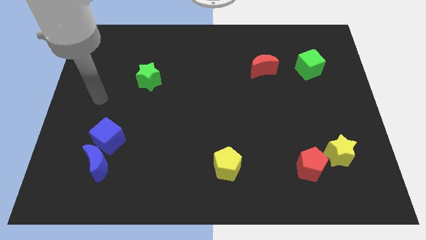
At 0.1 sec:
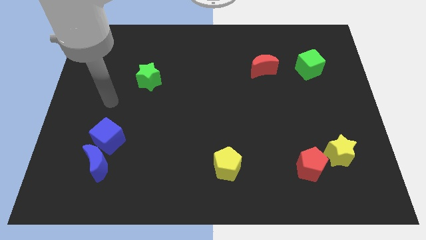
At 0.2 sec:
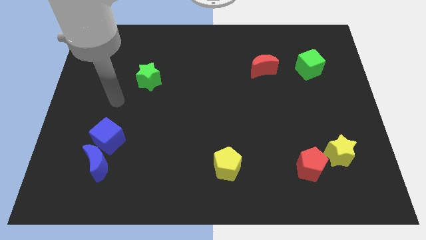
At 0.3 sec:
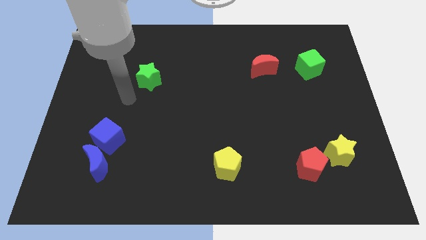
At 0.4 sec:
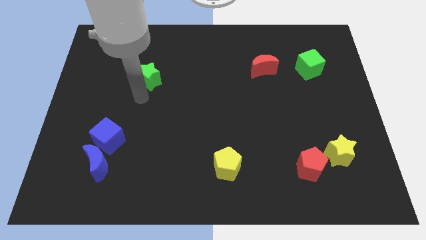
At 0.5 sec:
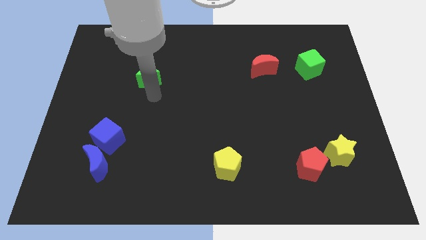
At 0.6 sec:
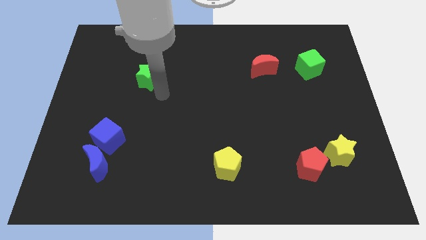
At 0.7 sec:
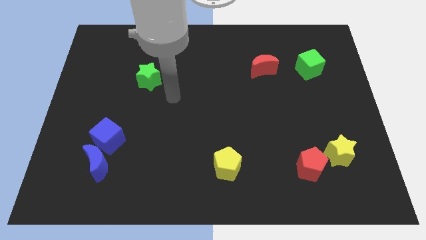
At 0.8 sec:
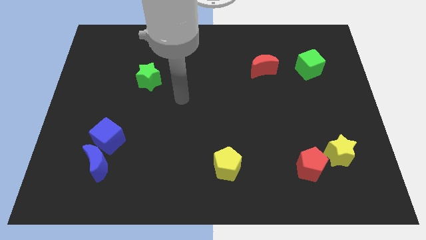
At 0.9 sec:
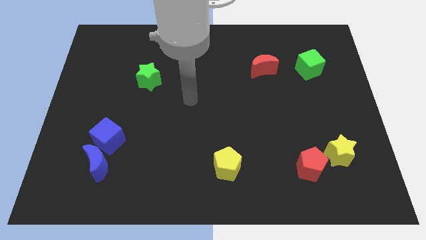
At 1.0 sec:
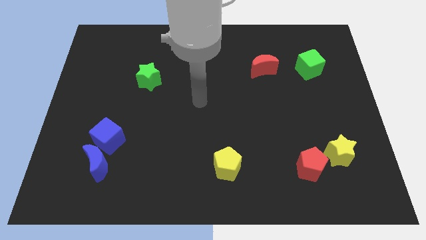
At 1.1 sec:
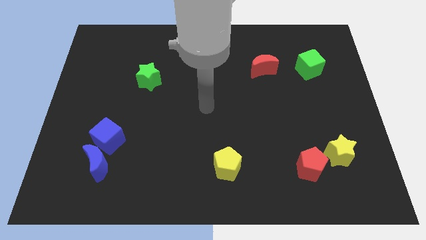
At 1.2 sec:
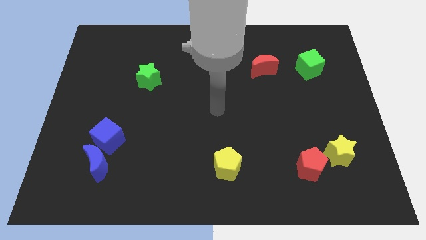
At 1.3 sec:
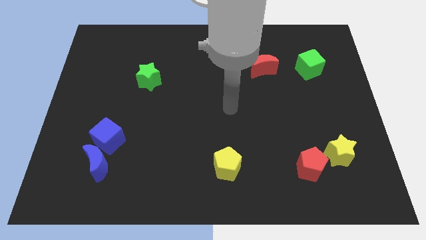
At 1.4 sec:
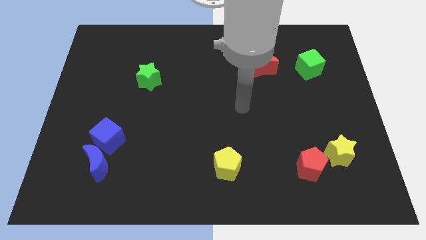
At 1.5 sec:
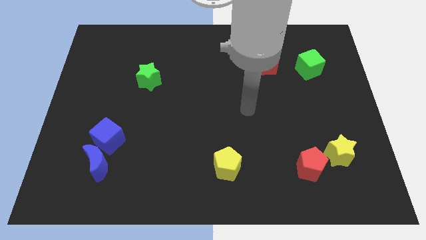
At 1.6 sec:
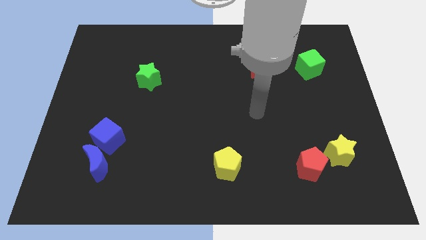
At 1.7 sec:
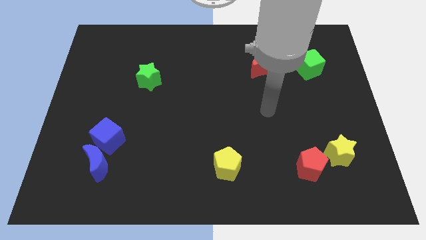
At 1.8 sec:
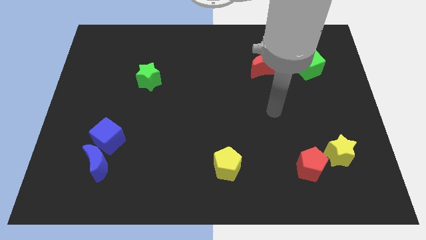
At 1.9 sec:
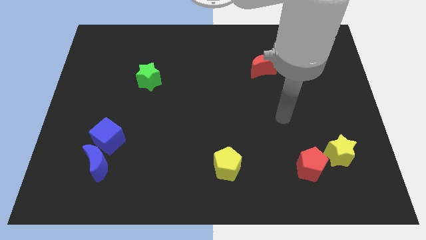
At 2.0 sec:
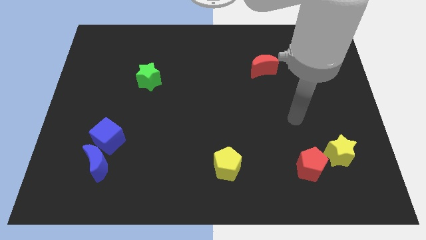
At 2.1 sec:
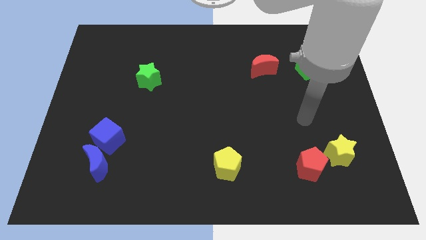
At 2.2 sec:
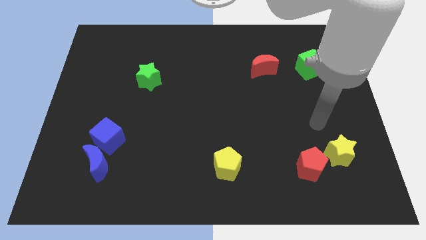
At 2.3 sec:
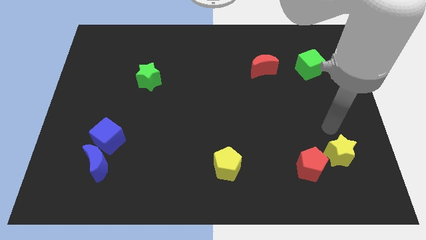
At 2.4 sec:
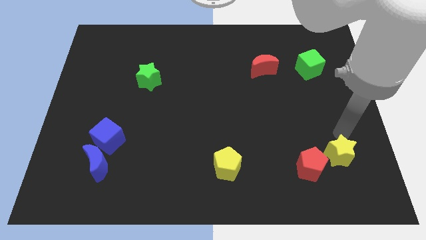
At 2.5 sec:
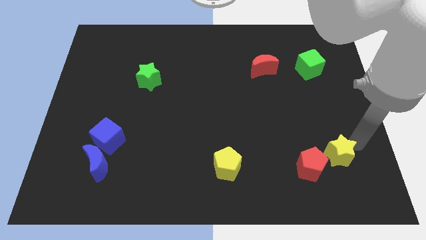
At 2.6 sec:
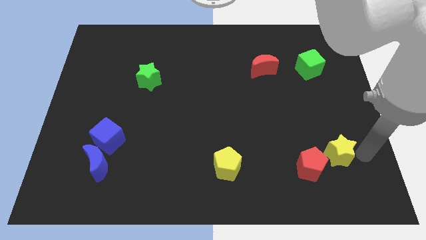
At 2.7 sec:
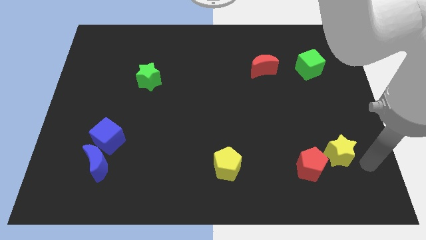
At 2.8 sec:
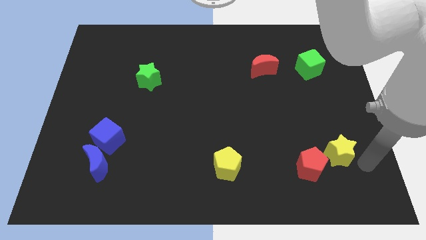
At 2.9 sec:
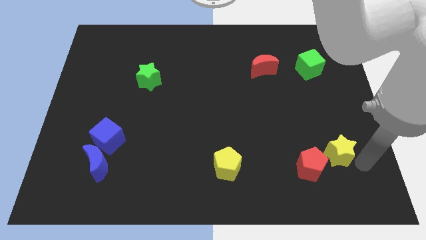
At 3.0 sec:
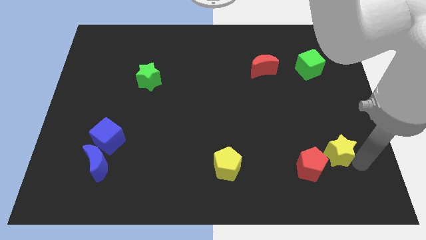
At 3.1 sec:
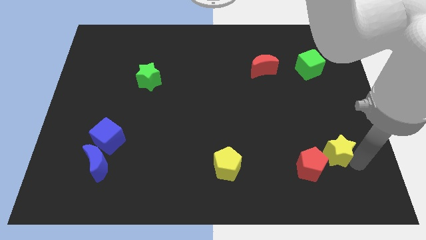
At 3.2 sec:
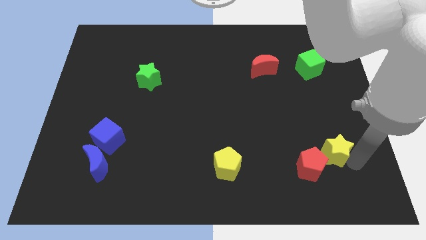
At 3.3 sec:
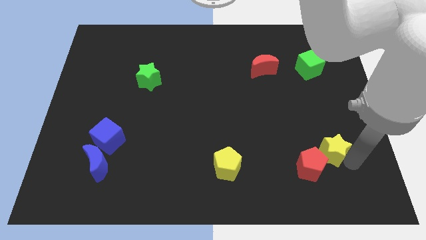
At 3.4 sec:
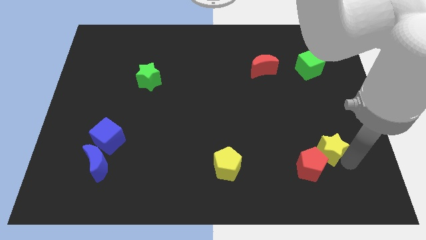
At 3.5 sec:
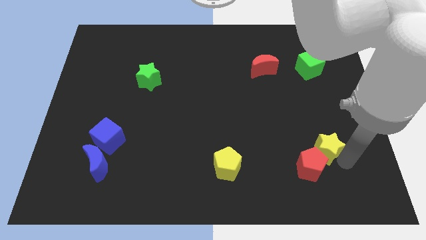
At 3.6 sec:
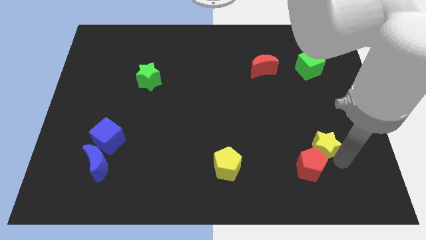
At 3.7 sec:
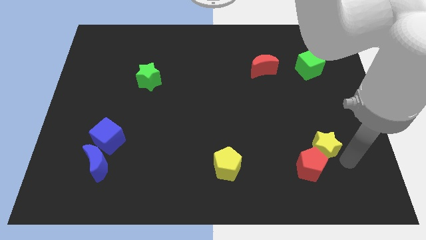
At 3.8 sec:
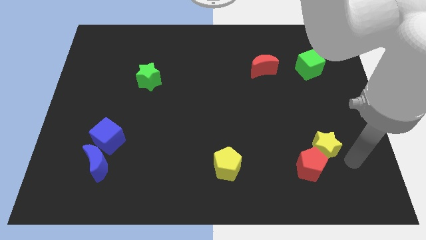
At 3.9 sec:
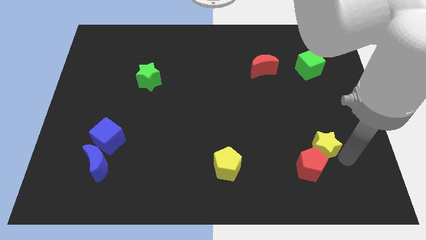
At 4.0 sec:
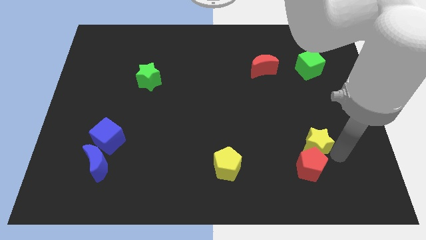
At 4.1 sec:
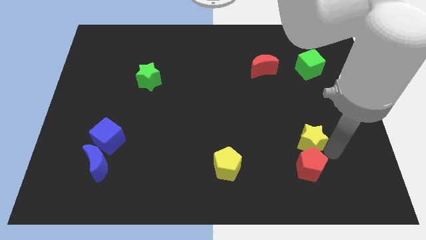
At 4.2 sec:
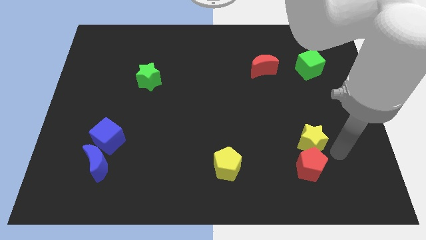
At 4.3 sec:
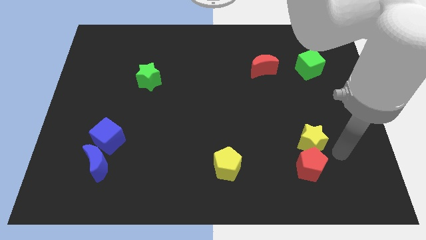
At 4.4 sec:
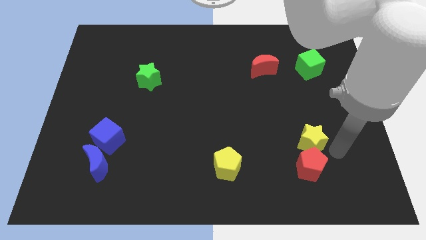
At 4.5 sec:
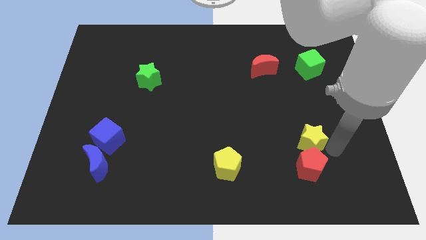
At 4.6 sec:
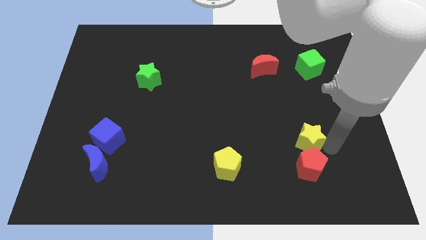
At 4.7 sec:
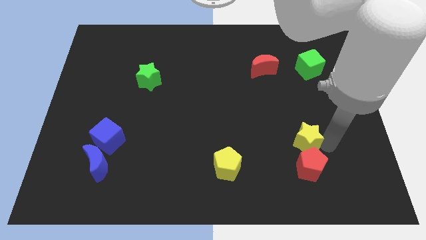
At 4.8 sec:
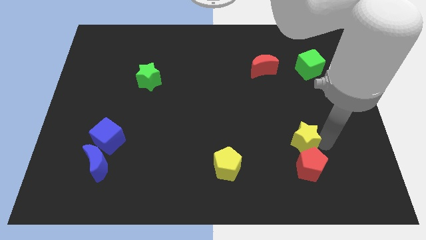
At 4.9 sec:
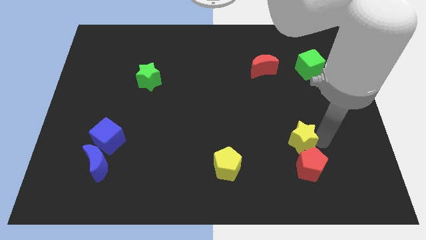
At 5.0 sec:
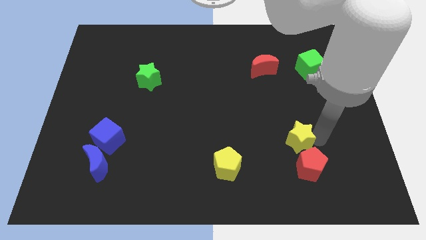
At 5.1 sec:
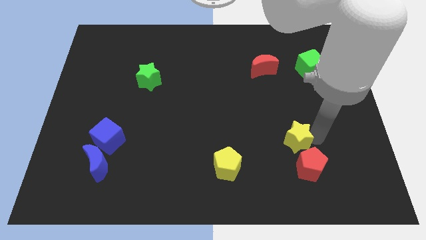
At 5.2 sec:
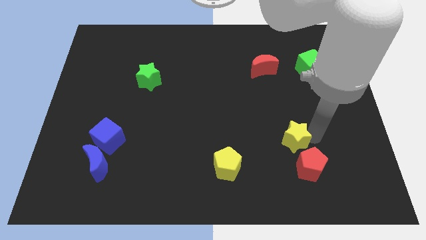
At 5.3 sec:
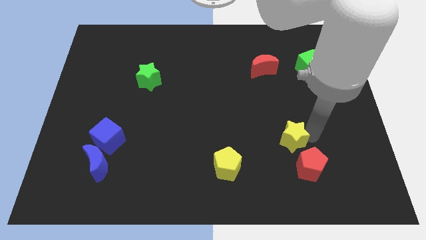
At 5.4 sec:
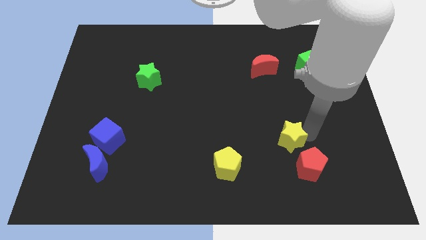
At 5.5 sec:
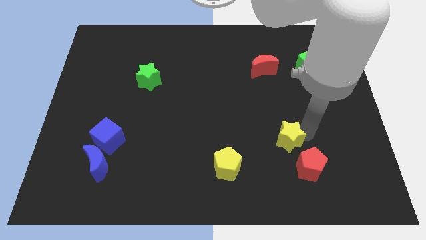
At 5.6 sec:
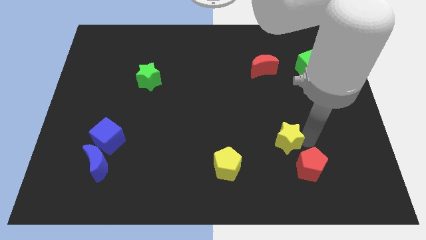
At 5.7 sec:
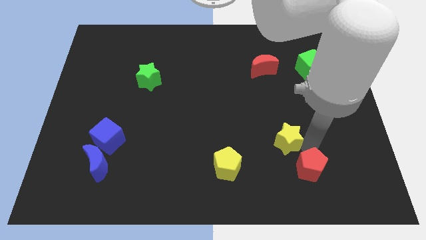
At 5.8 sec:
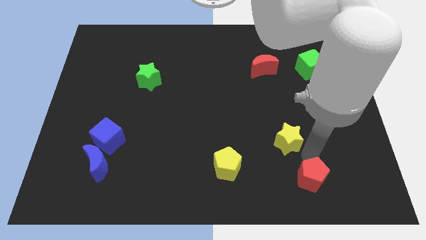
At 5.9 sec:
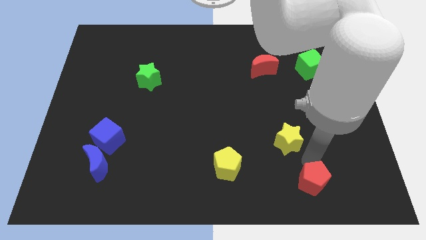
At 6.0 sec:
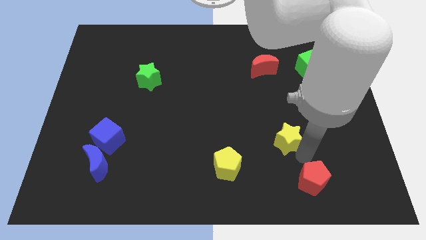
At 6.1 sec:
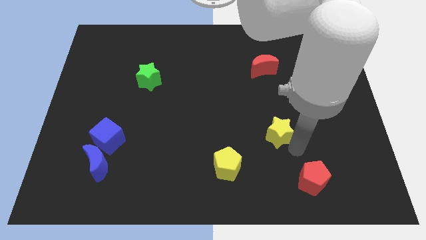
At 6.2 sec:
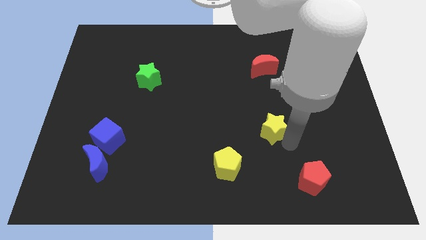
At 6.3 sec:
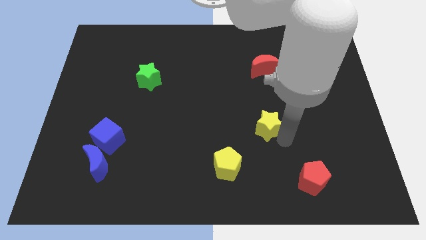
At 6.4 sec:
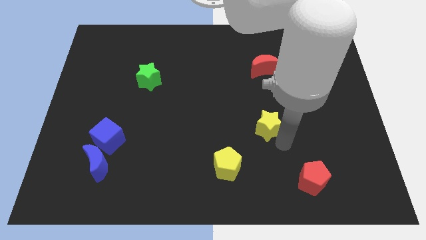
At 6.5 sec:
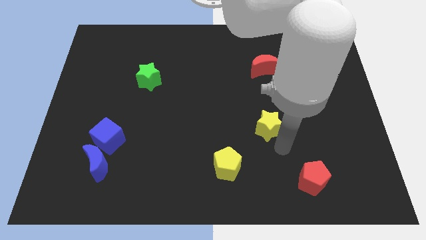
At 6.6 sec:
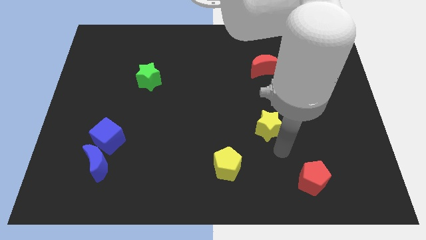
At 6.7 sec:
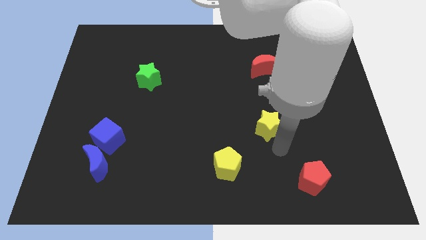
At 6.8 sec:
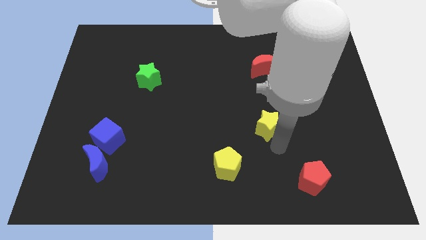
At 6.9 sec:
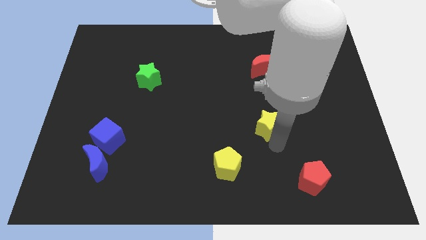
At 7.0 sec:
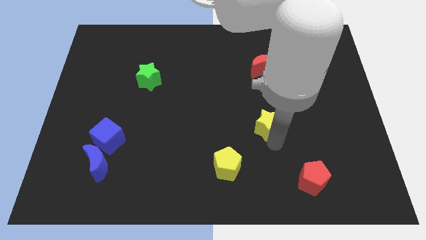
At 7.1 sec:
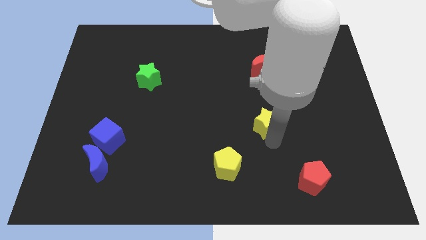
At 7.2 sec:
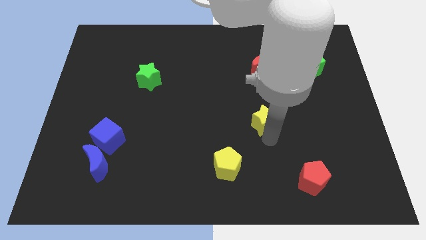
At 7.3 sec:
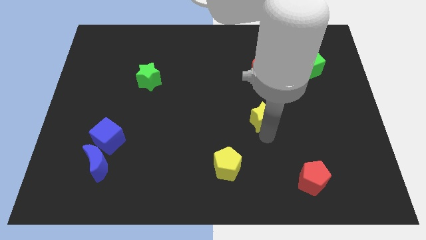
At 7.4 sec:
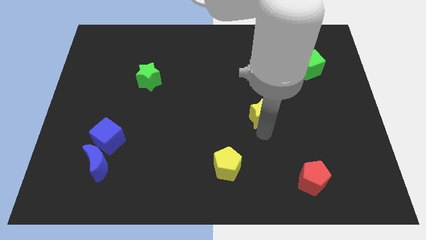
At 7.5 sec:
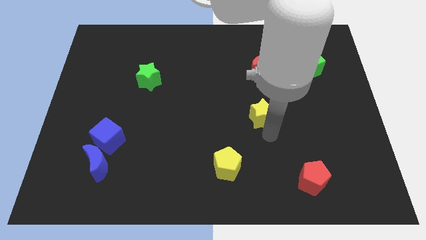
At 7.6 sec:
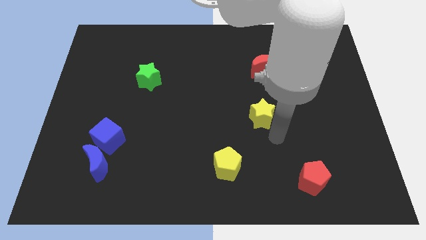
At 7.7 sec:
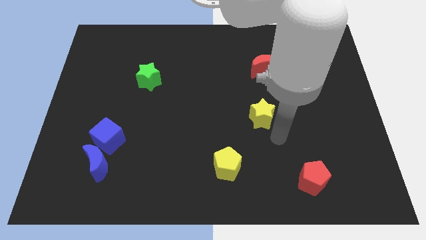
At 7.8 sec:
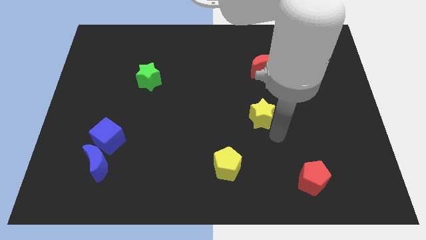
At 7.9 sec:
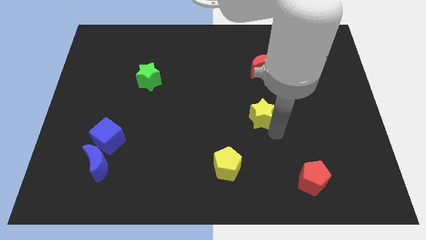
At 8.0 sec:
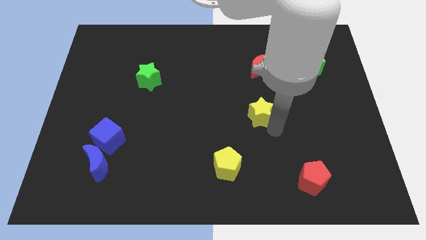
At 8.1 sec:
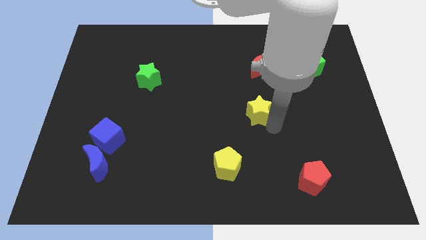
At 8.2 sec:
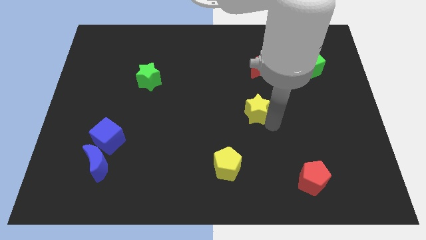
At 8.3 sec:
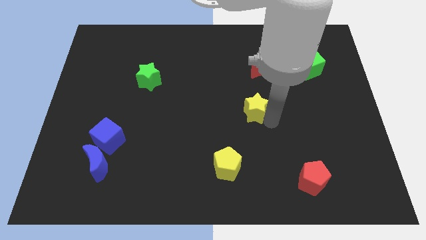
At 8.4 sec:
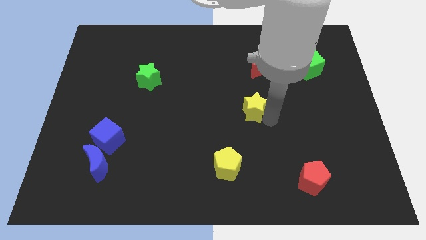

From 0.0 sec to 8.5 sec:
slide the yellow star upwards and then to the left
